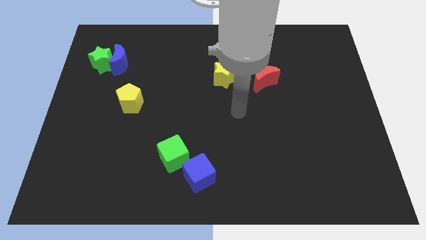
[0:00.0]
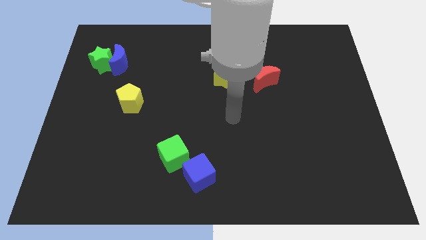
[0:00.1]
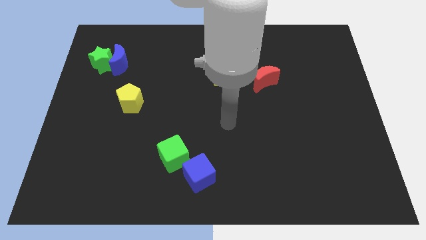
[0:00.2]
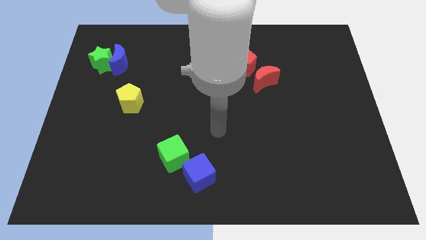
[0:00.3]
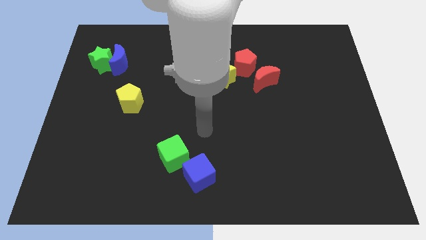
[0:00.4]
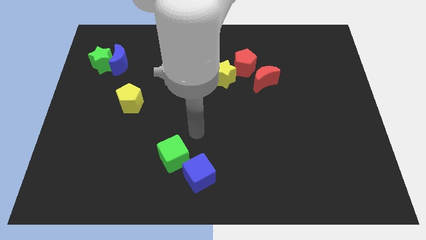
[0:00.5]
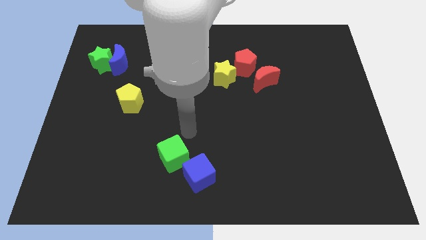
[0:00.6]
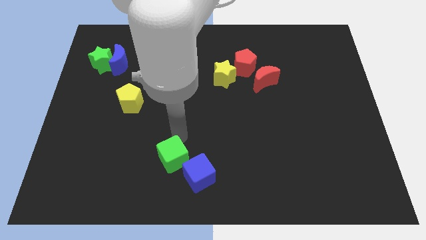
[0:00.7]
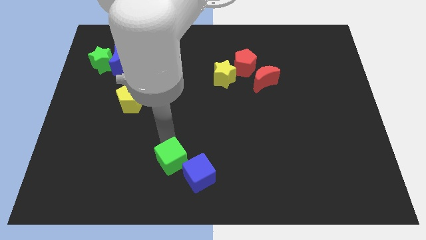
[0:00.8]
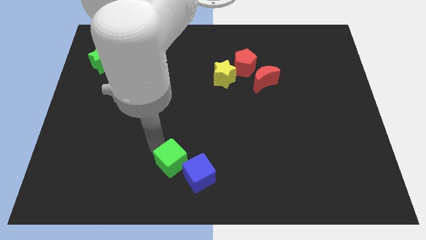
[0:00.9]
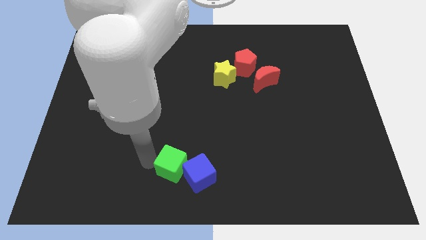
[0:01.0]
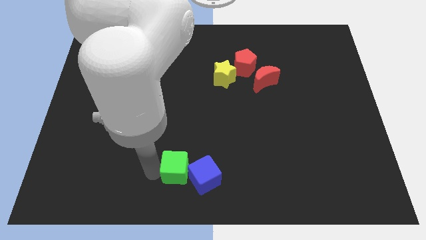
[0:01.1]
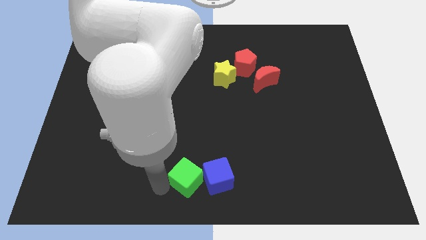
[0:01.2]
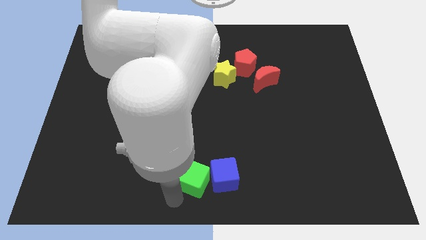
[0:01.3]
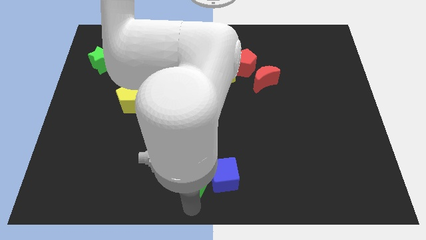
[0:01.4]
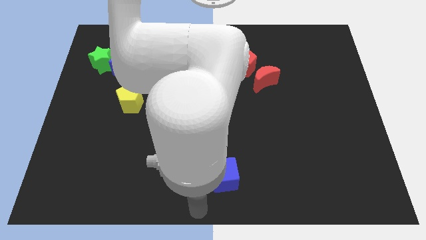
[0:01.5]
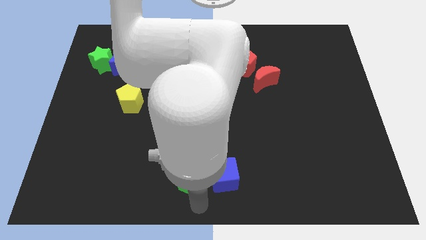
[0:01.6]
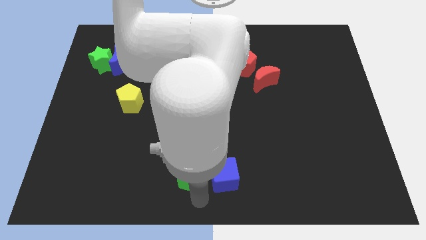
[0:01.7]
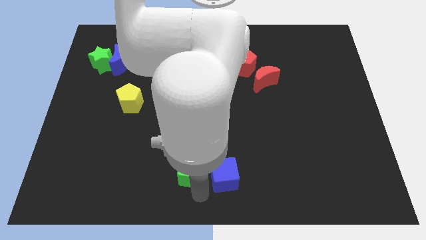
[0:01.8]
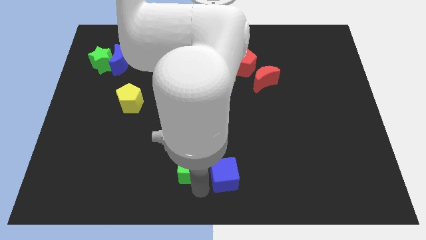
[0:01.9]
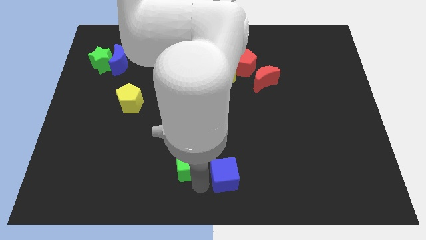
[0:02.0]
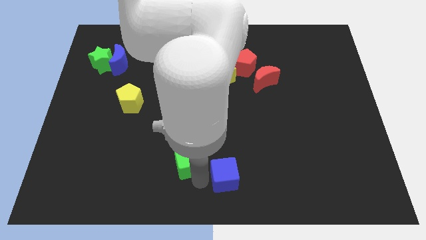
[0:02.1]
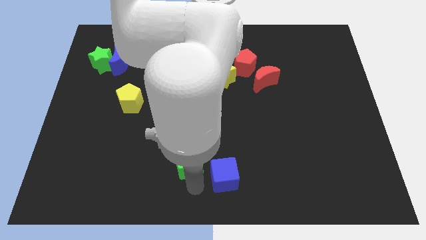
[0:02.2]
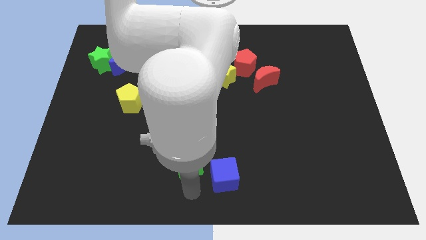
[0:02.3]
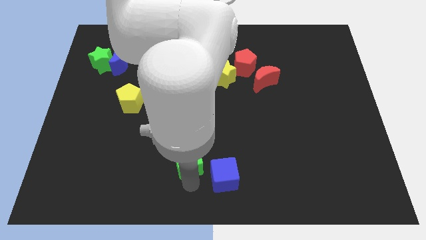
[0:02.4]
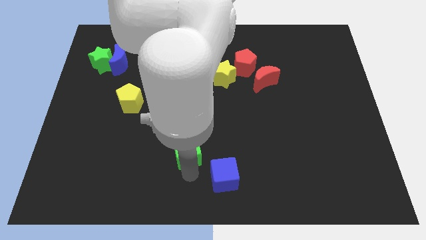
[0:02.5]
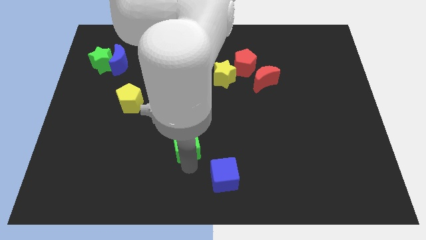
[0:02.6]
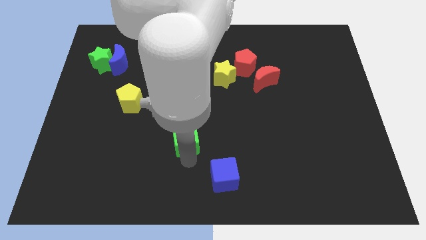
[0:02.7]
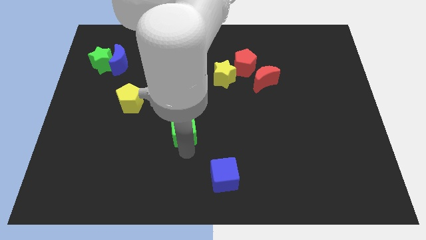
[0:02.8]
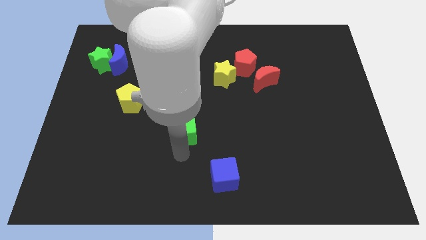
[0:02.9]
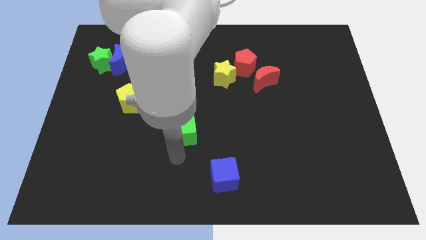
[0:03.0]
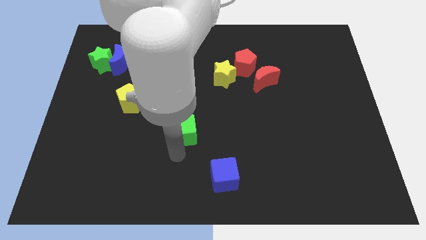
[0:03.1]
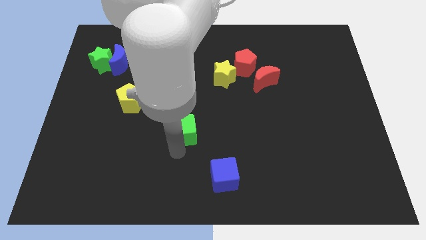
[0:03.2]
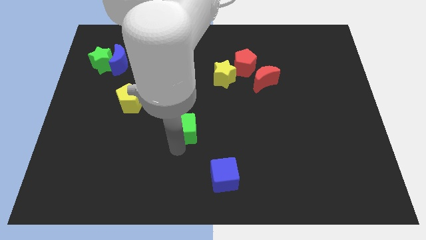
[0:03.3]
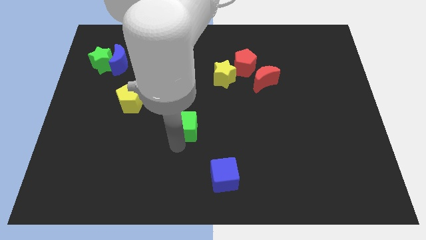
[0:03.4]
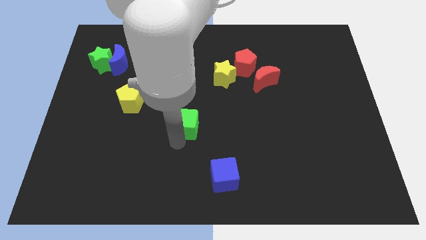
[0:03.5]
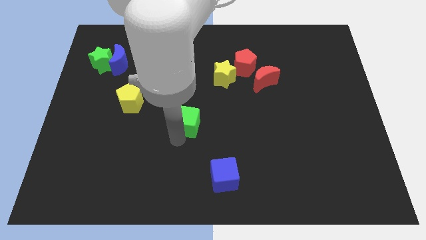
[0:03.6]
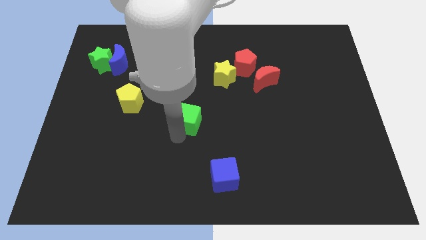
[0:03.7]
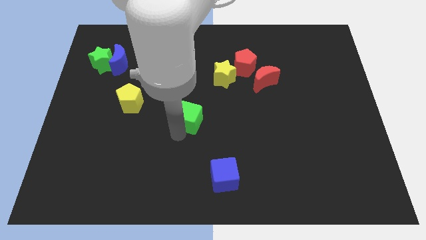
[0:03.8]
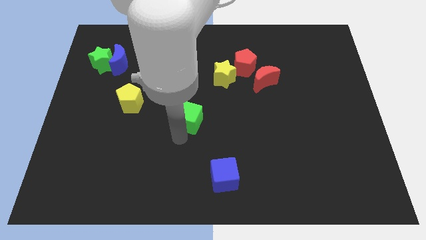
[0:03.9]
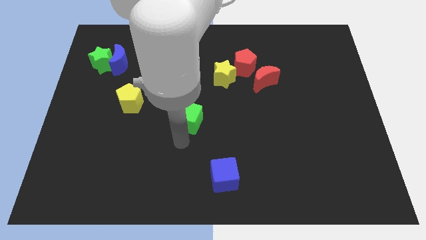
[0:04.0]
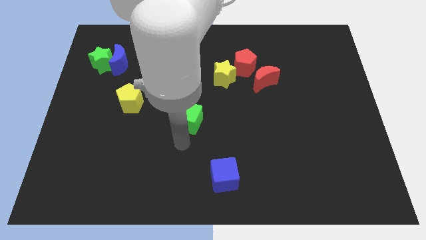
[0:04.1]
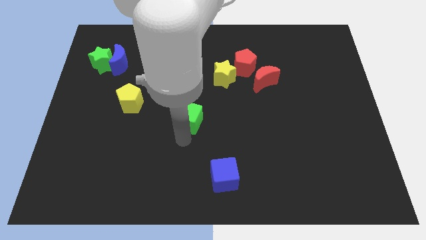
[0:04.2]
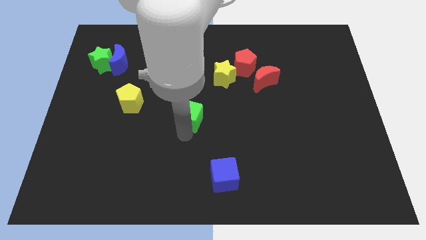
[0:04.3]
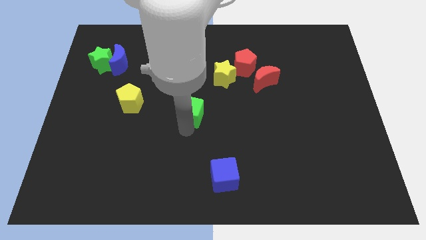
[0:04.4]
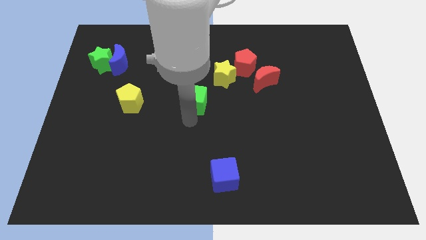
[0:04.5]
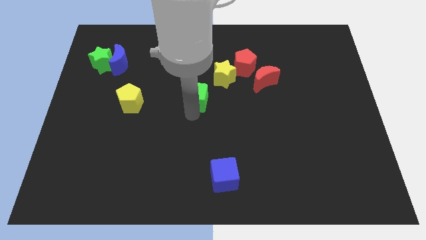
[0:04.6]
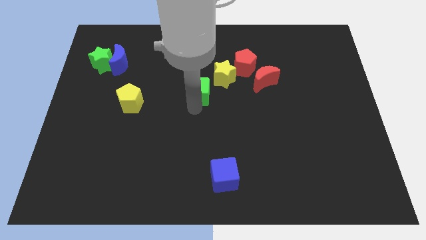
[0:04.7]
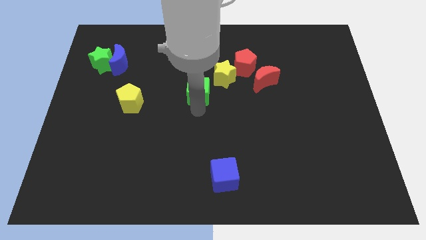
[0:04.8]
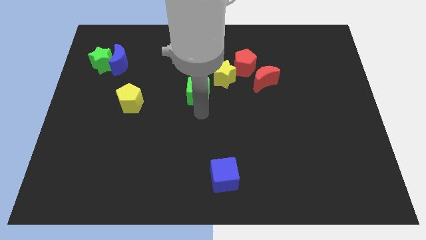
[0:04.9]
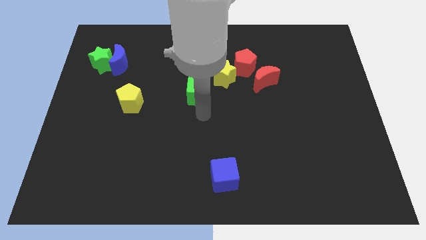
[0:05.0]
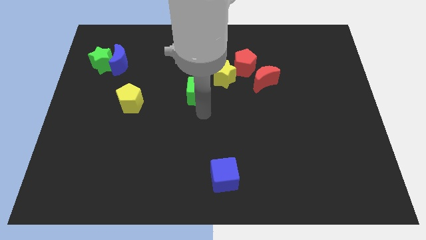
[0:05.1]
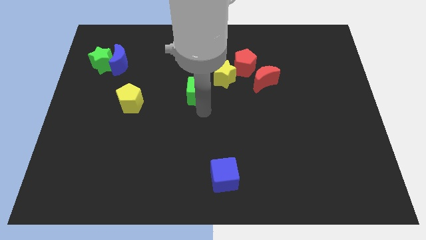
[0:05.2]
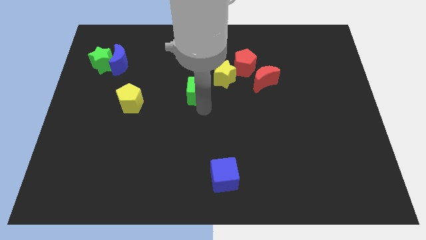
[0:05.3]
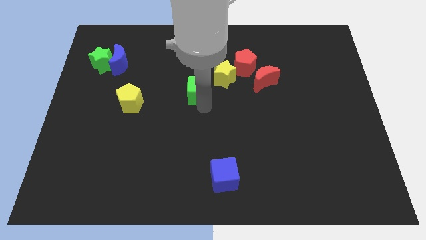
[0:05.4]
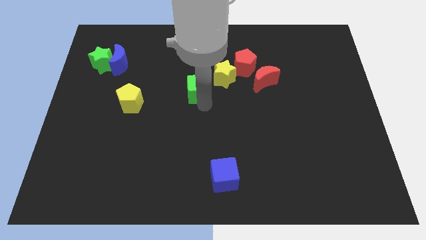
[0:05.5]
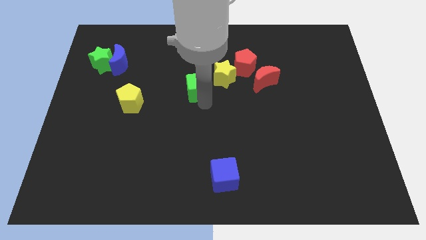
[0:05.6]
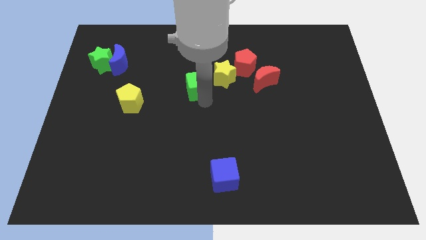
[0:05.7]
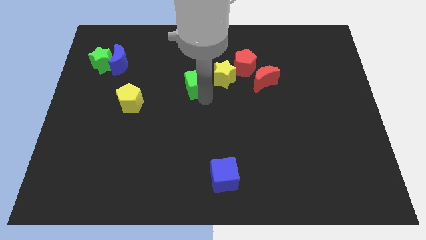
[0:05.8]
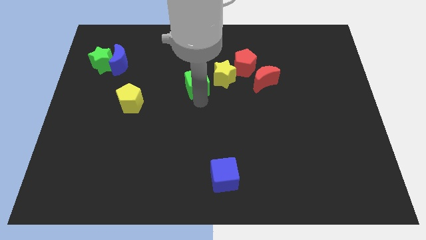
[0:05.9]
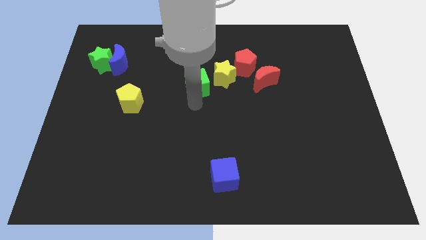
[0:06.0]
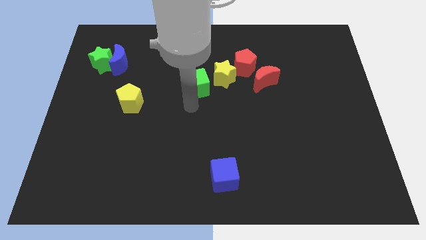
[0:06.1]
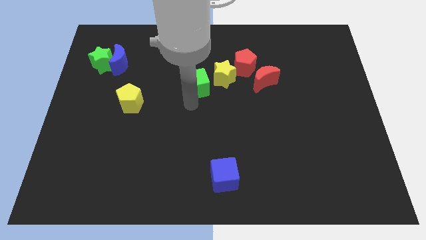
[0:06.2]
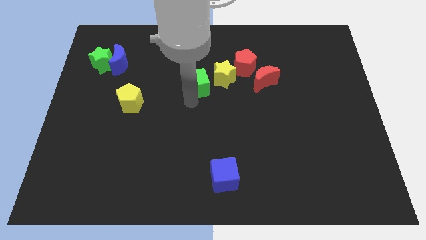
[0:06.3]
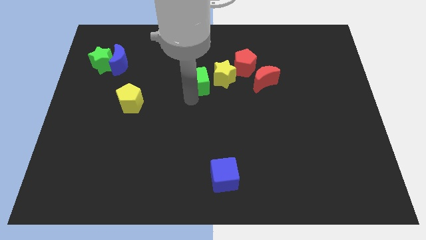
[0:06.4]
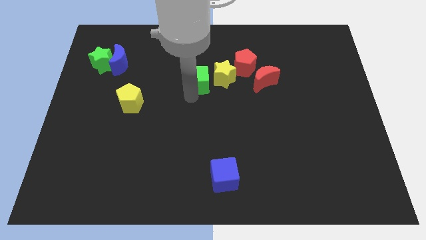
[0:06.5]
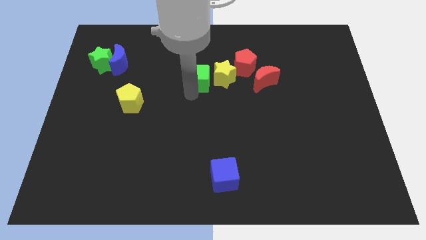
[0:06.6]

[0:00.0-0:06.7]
push the green cube left of the red pentagon

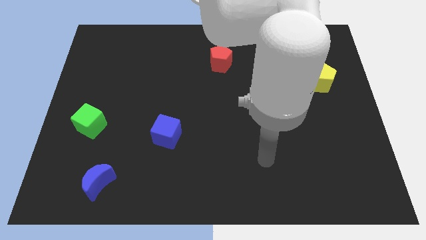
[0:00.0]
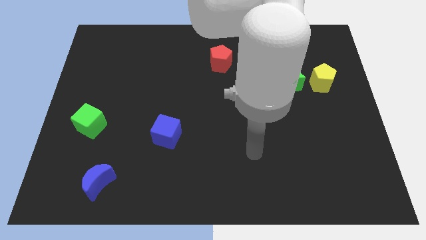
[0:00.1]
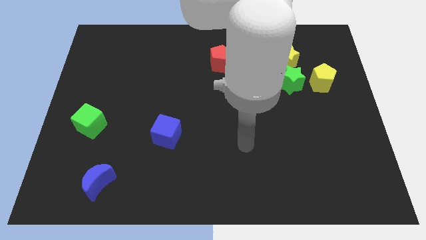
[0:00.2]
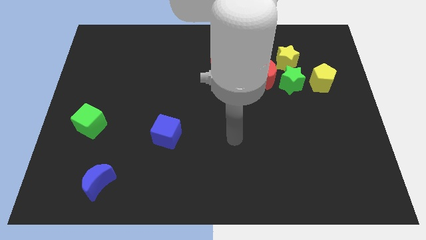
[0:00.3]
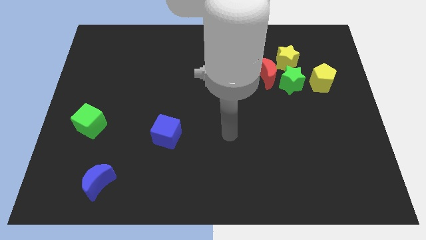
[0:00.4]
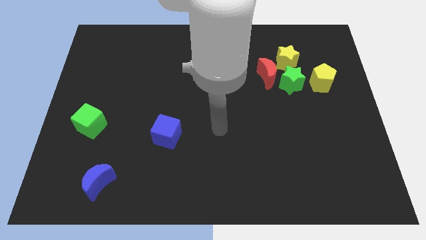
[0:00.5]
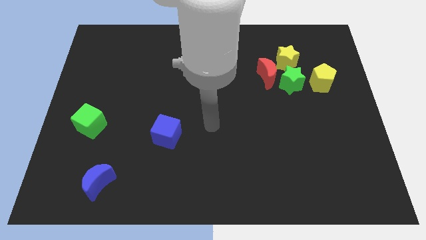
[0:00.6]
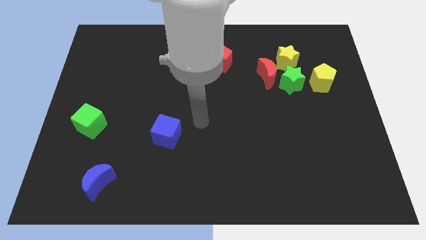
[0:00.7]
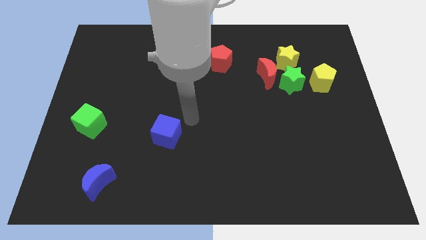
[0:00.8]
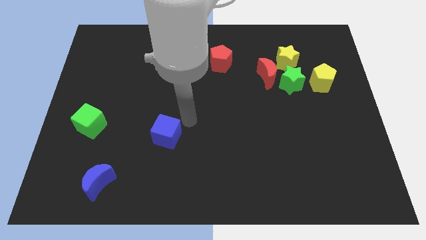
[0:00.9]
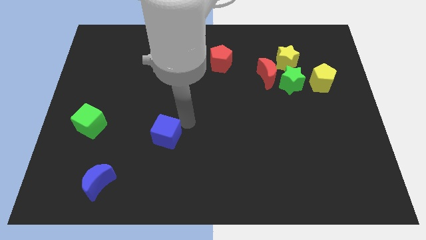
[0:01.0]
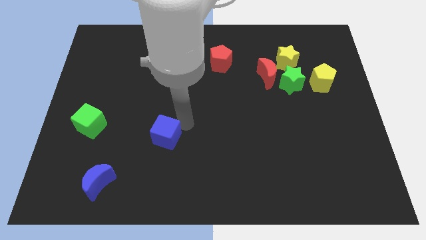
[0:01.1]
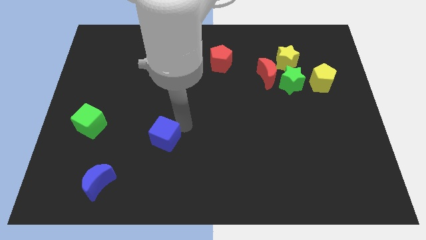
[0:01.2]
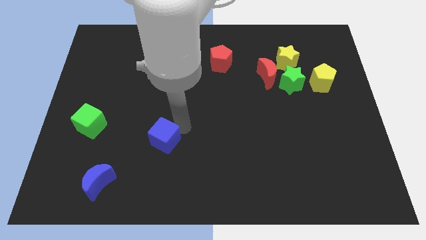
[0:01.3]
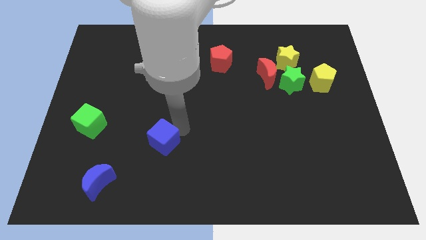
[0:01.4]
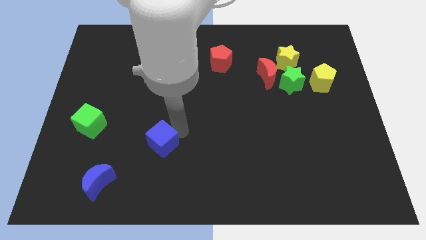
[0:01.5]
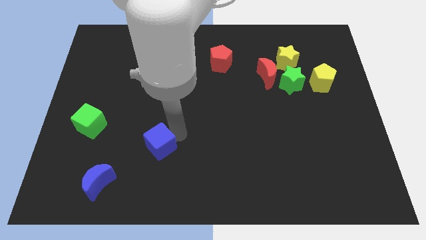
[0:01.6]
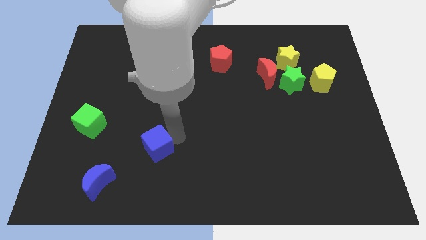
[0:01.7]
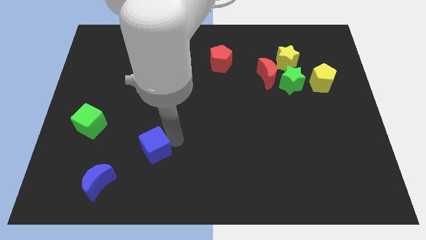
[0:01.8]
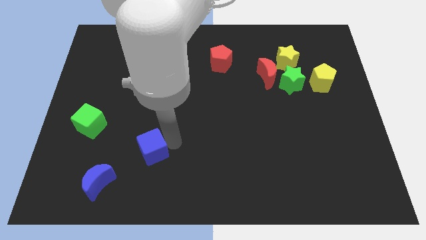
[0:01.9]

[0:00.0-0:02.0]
slide the blue cube to the top right side of the blue moon
